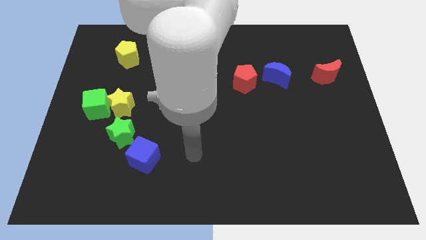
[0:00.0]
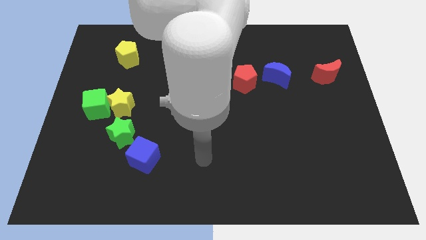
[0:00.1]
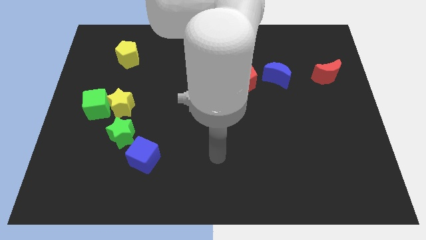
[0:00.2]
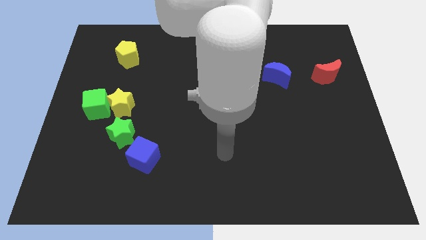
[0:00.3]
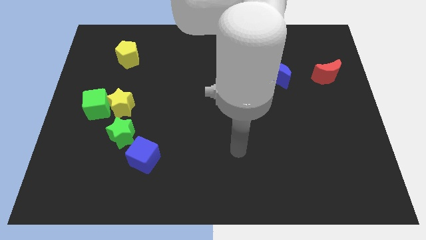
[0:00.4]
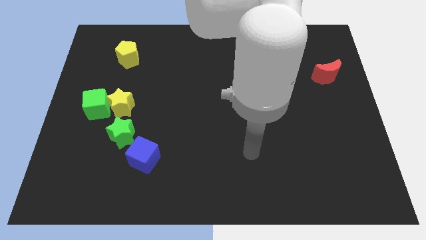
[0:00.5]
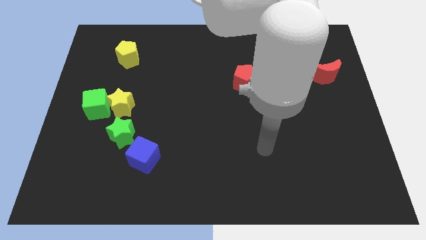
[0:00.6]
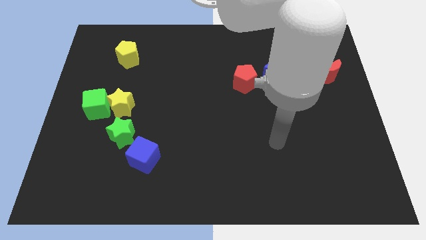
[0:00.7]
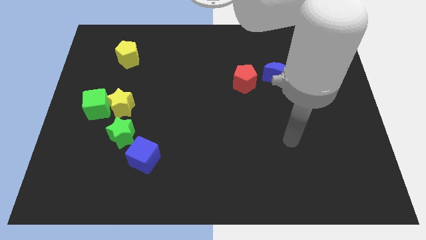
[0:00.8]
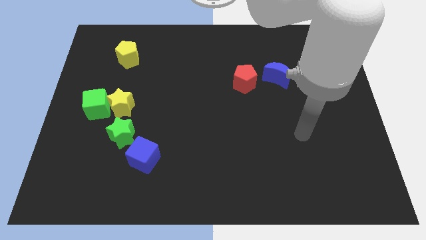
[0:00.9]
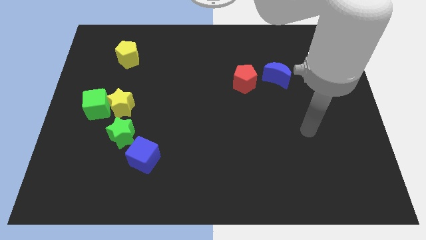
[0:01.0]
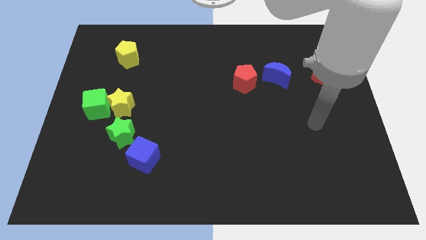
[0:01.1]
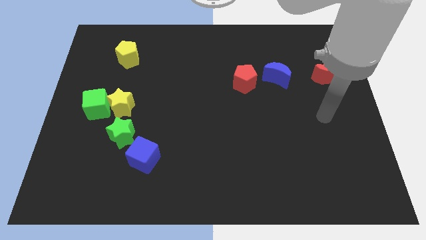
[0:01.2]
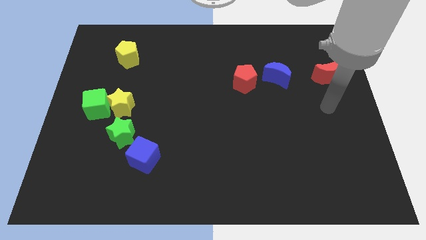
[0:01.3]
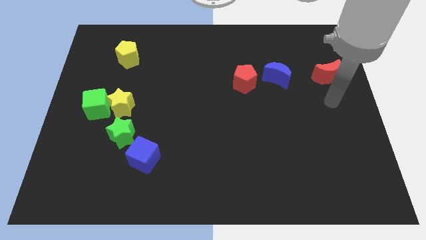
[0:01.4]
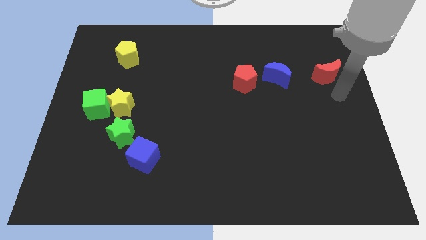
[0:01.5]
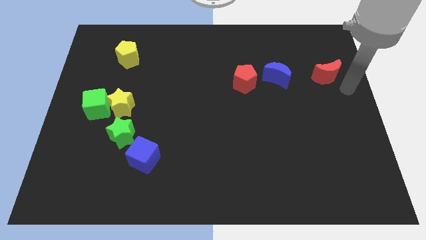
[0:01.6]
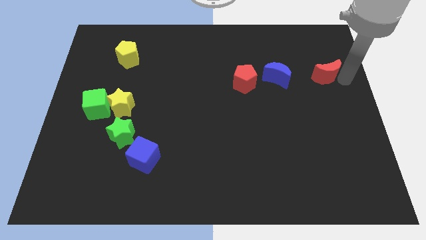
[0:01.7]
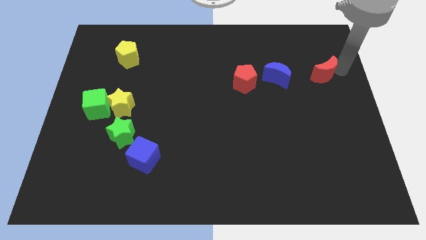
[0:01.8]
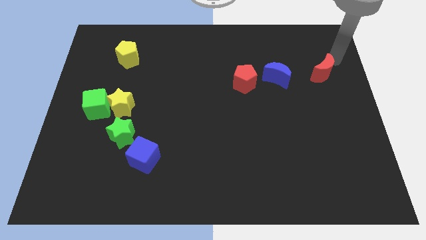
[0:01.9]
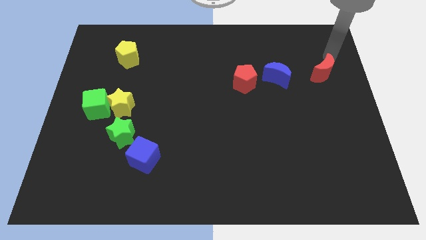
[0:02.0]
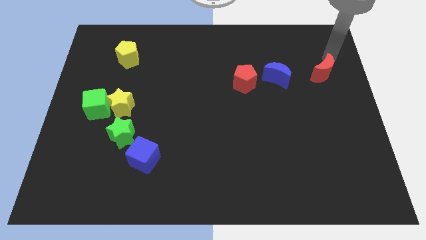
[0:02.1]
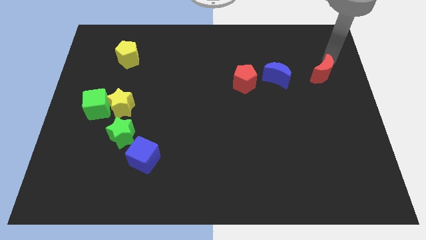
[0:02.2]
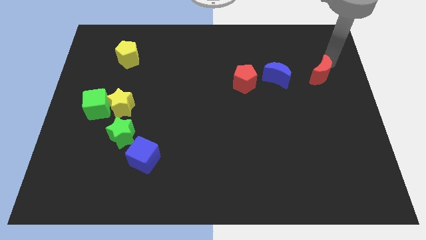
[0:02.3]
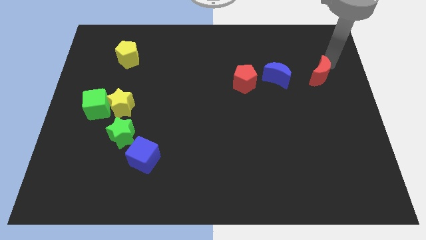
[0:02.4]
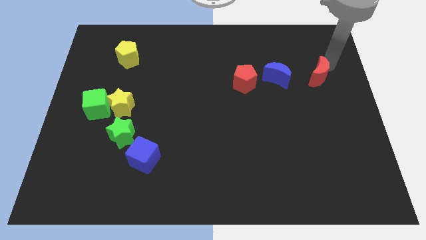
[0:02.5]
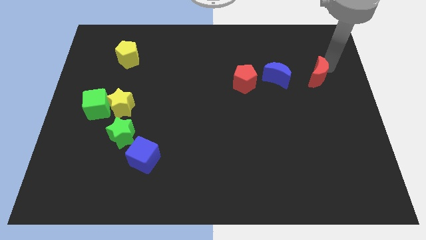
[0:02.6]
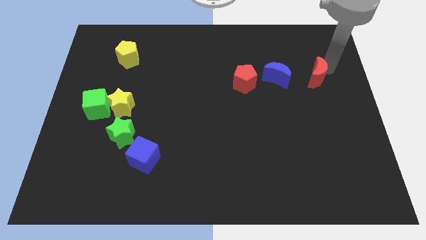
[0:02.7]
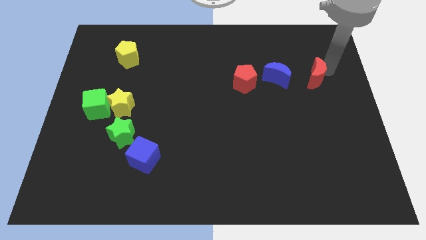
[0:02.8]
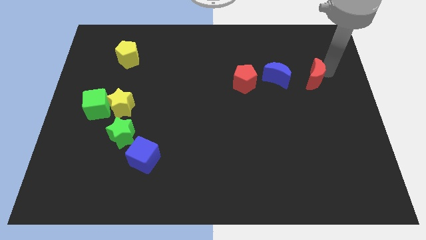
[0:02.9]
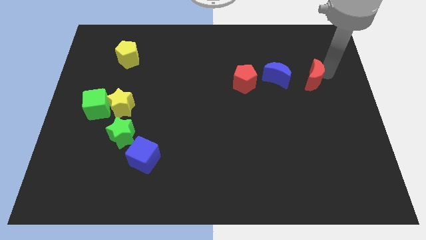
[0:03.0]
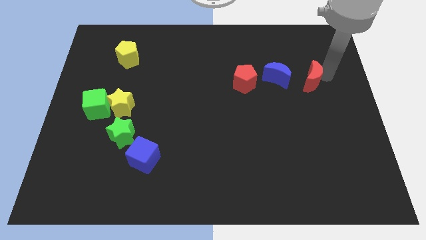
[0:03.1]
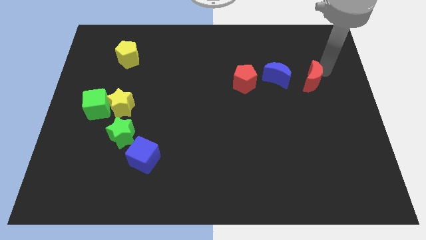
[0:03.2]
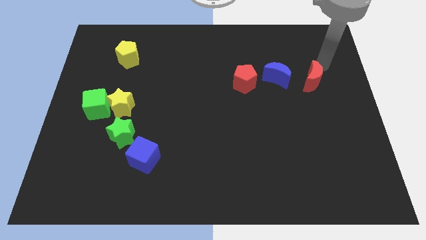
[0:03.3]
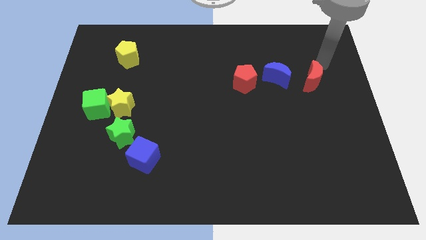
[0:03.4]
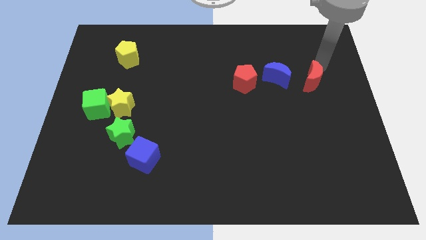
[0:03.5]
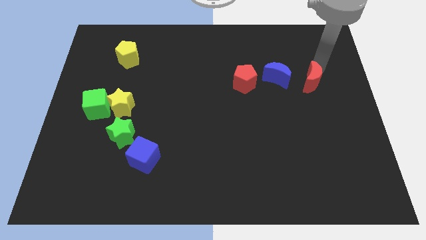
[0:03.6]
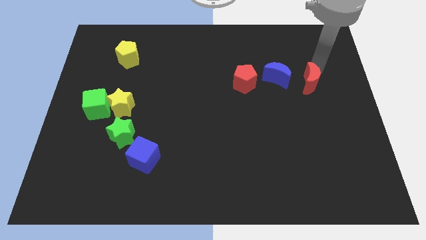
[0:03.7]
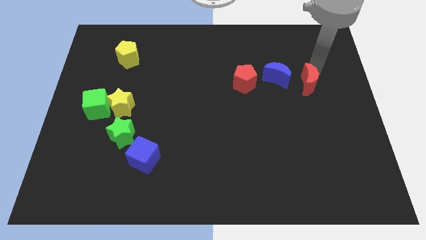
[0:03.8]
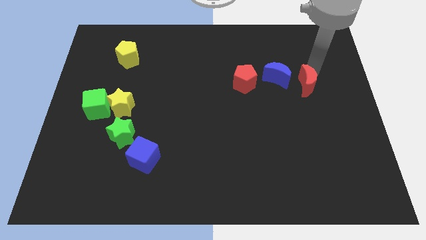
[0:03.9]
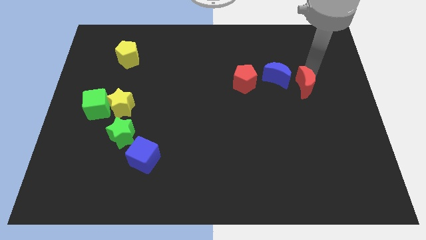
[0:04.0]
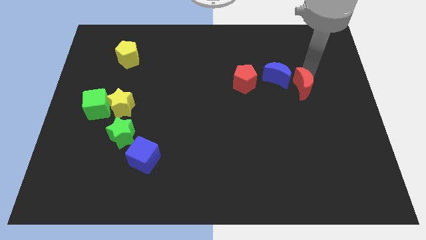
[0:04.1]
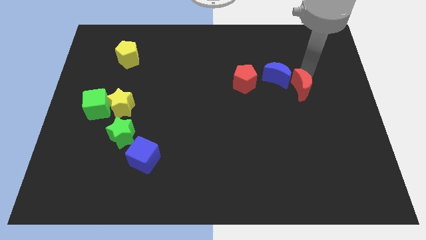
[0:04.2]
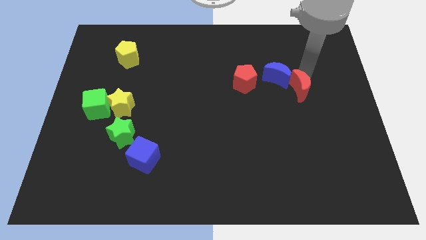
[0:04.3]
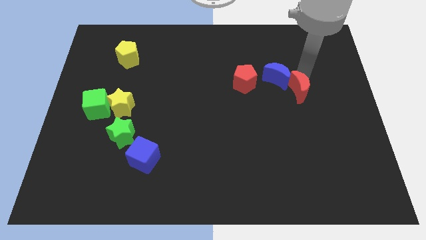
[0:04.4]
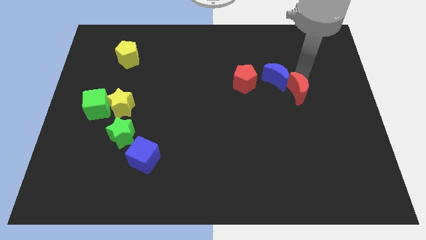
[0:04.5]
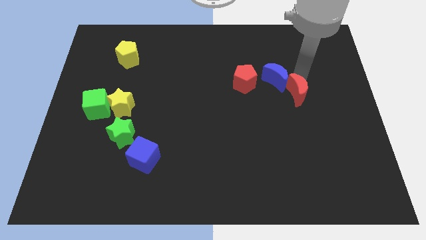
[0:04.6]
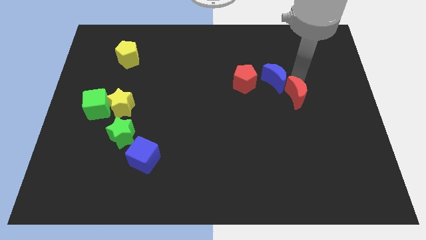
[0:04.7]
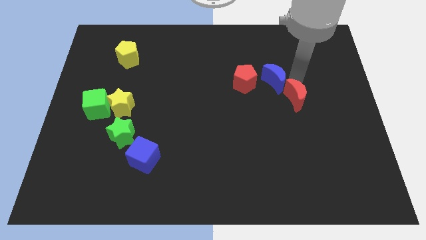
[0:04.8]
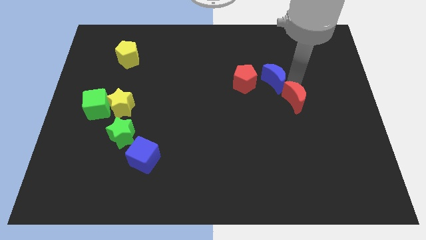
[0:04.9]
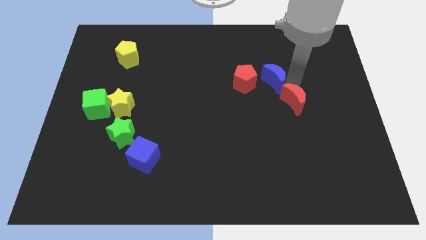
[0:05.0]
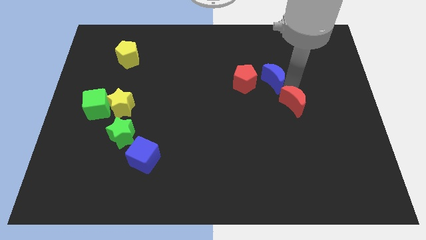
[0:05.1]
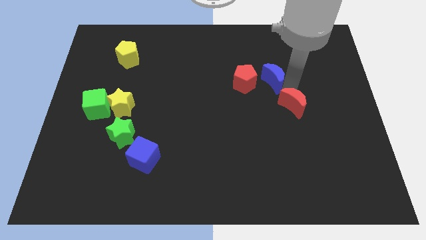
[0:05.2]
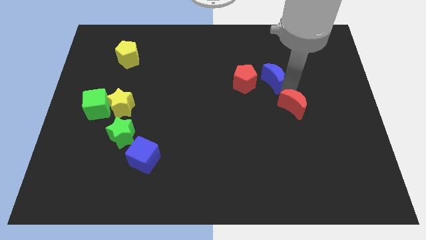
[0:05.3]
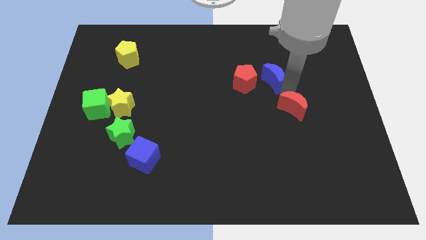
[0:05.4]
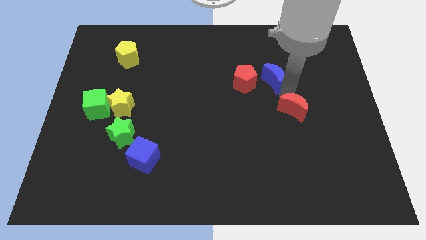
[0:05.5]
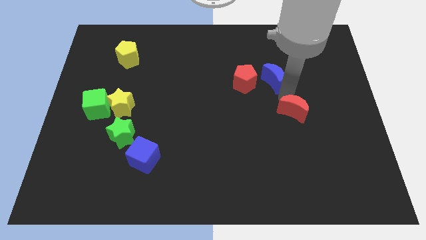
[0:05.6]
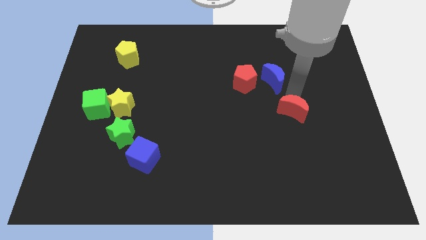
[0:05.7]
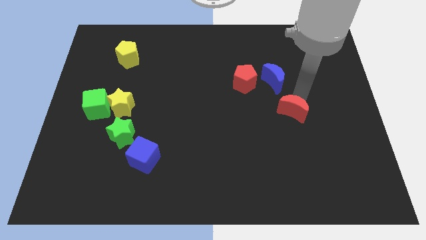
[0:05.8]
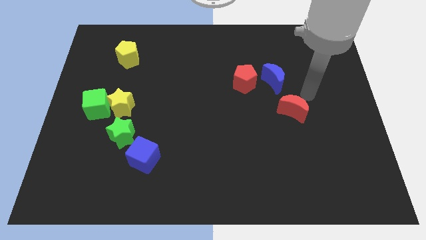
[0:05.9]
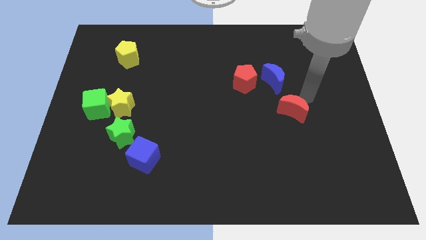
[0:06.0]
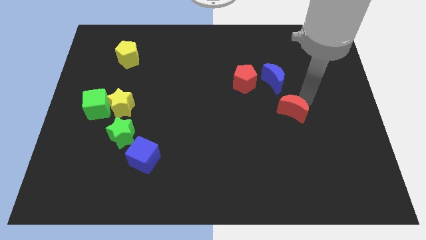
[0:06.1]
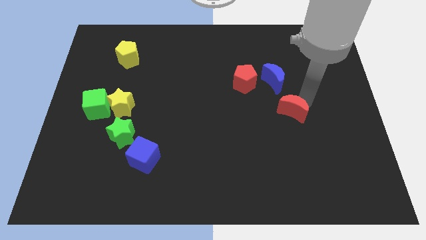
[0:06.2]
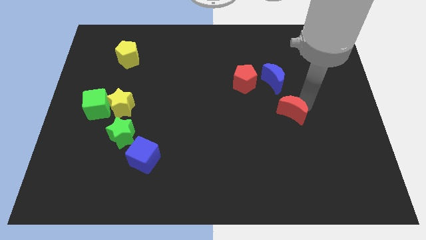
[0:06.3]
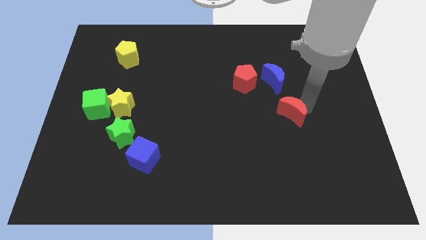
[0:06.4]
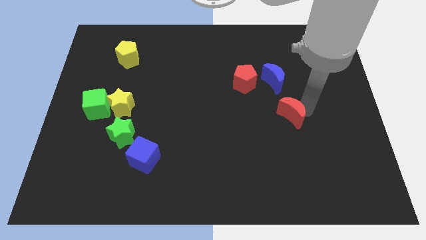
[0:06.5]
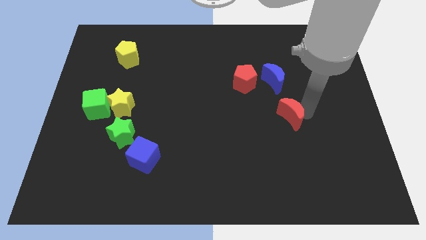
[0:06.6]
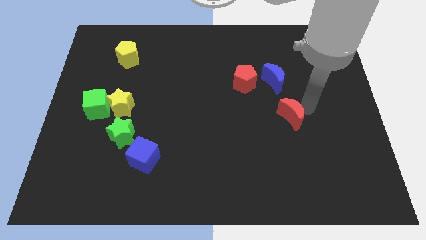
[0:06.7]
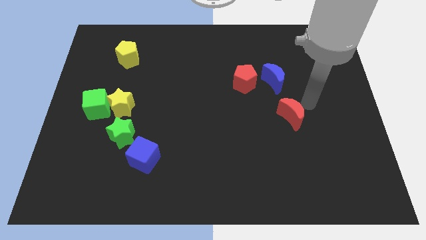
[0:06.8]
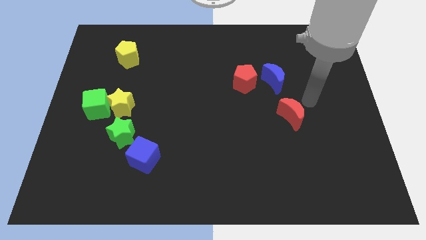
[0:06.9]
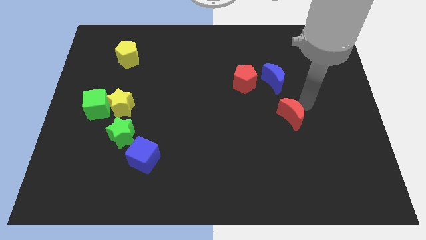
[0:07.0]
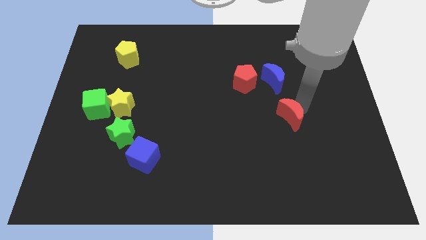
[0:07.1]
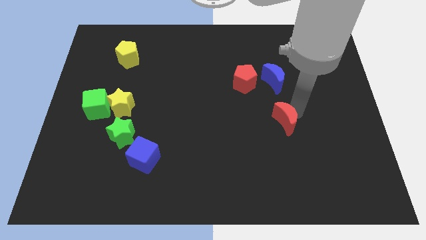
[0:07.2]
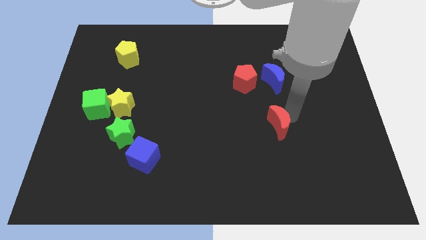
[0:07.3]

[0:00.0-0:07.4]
push the red moon down and then left
